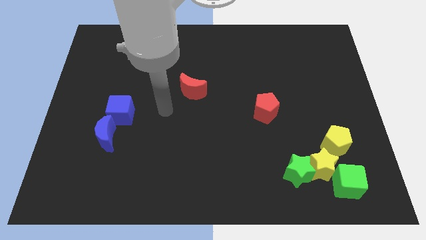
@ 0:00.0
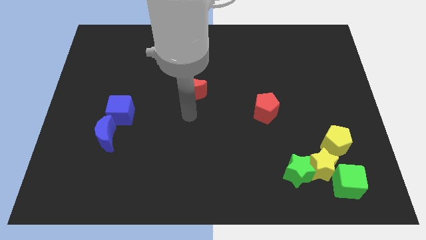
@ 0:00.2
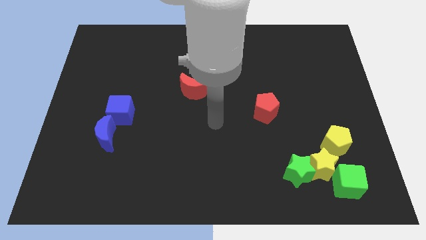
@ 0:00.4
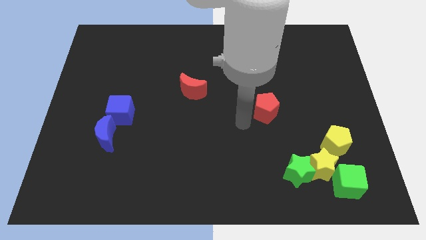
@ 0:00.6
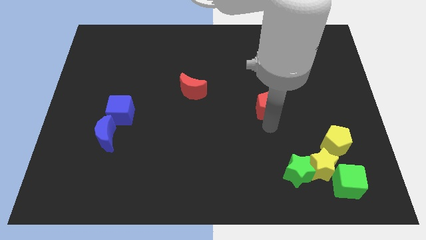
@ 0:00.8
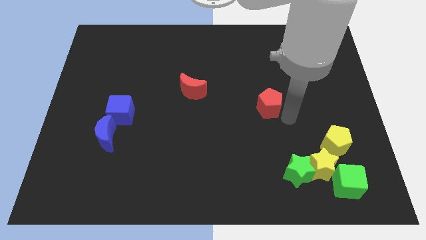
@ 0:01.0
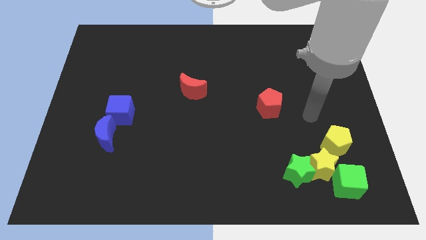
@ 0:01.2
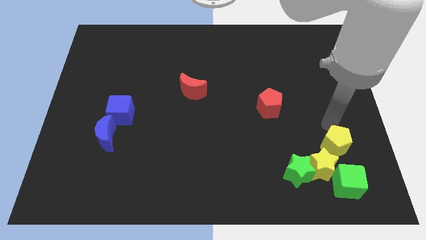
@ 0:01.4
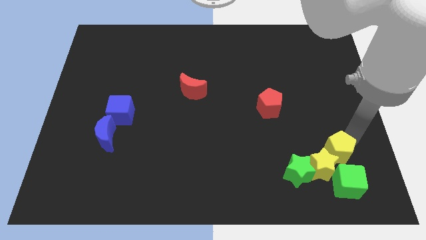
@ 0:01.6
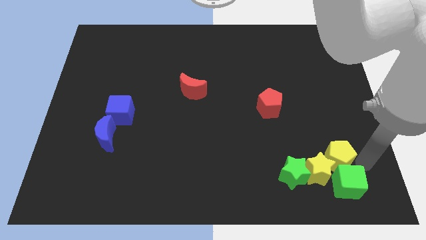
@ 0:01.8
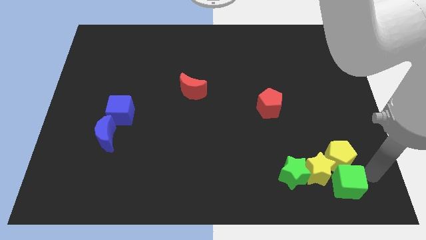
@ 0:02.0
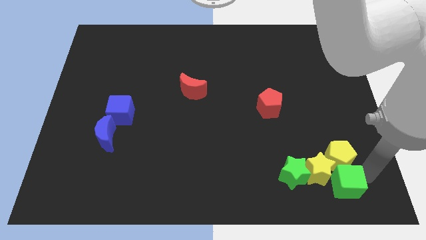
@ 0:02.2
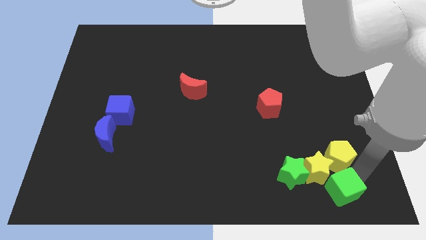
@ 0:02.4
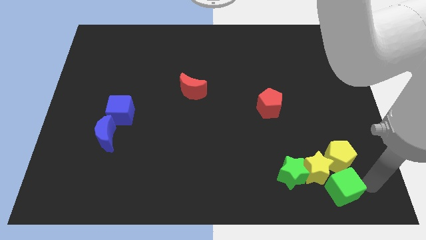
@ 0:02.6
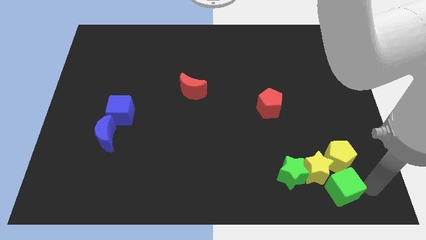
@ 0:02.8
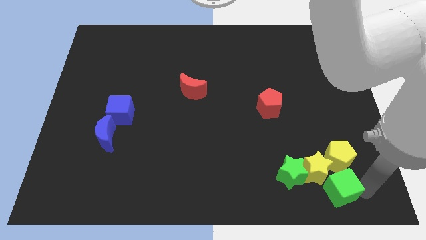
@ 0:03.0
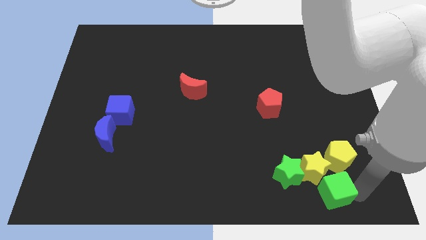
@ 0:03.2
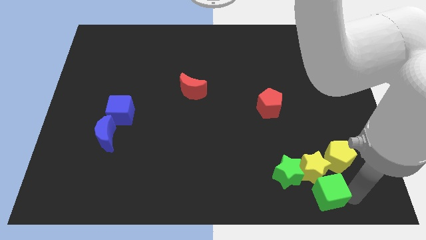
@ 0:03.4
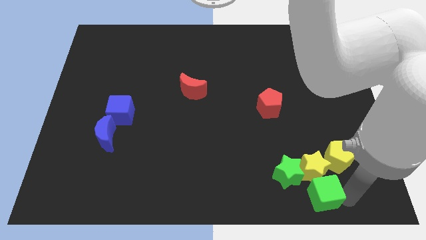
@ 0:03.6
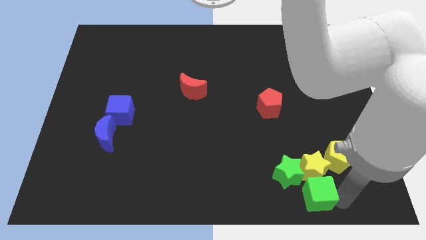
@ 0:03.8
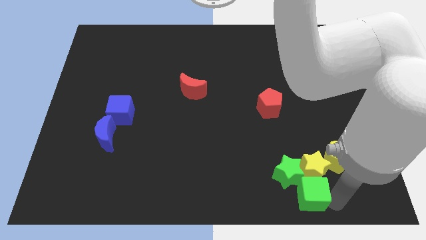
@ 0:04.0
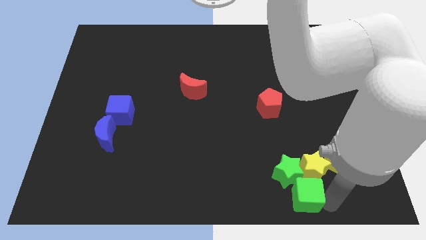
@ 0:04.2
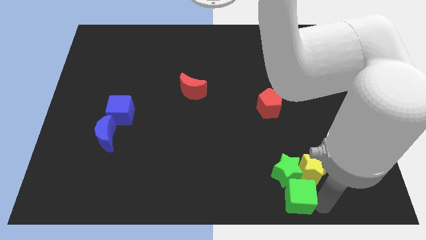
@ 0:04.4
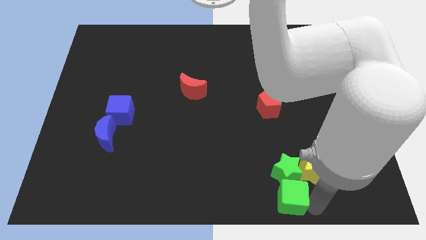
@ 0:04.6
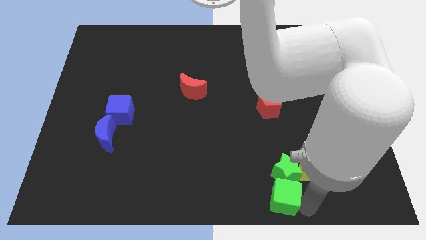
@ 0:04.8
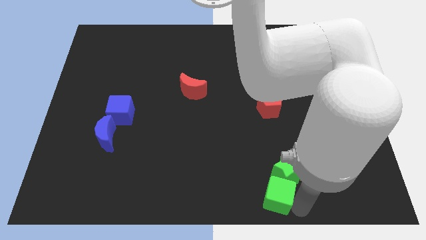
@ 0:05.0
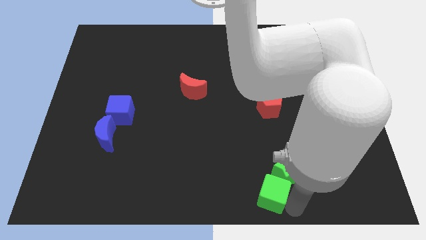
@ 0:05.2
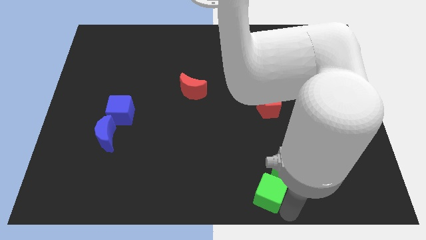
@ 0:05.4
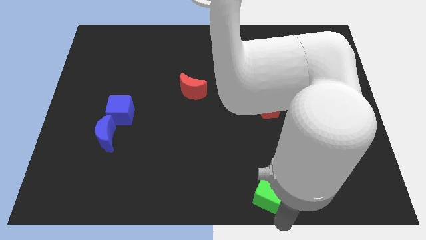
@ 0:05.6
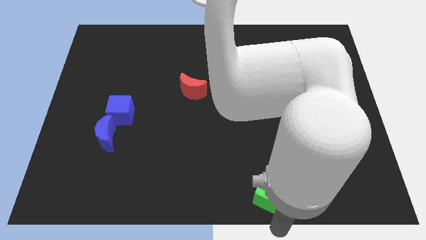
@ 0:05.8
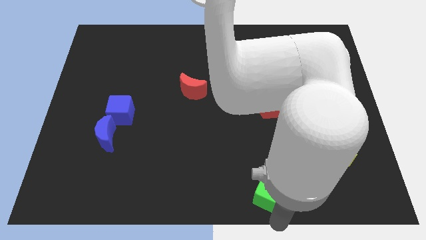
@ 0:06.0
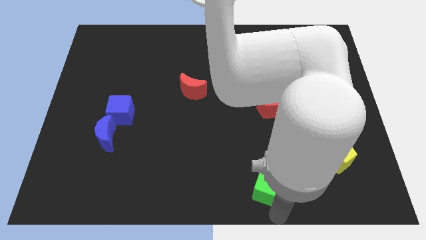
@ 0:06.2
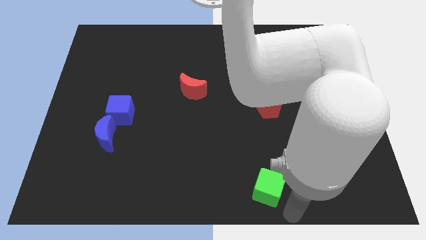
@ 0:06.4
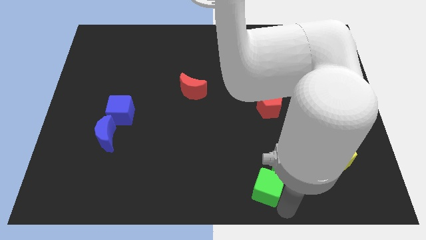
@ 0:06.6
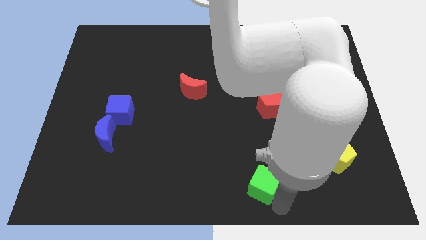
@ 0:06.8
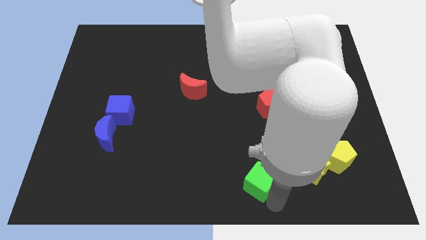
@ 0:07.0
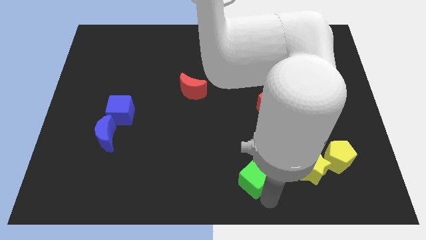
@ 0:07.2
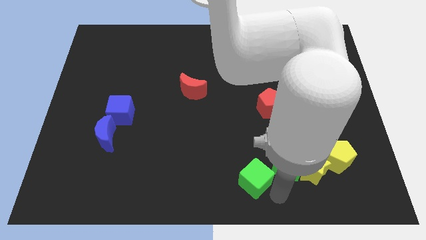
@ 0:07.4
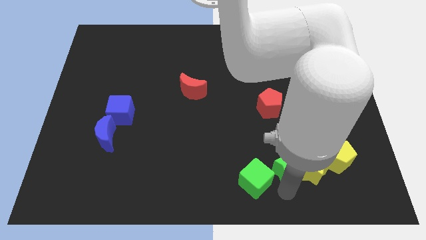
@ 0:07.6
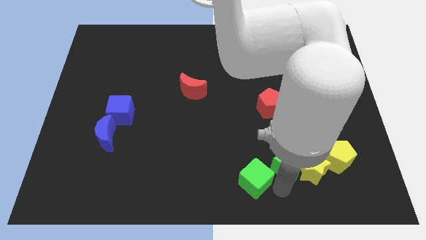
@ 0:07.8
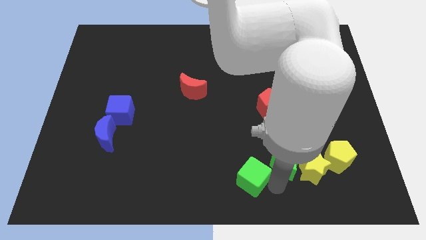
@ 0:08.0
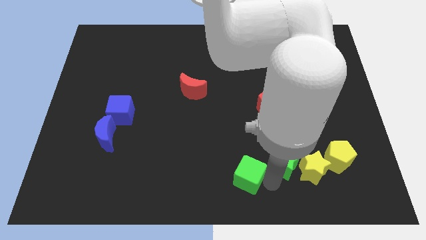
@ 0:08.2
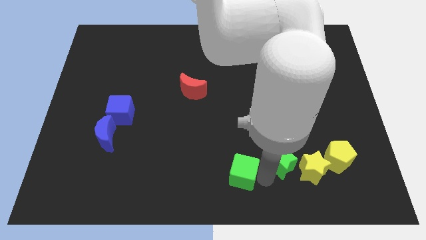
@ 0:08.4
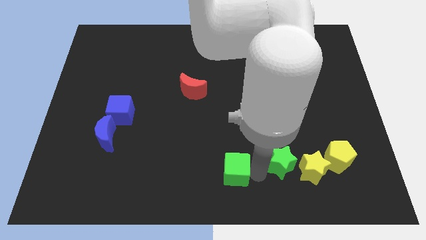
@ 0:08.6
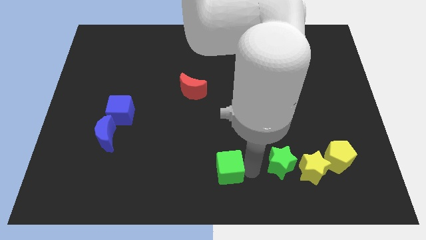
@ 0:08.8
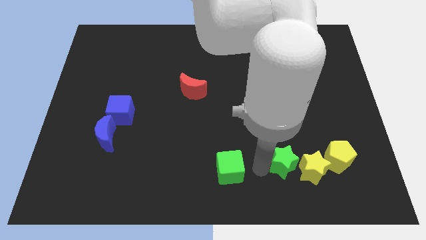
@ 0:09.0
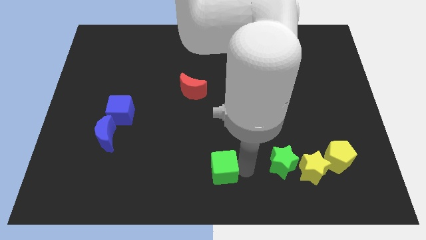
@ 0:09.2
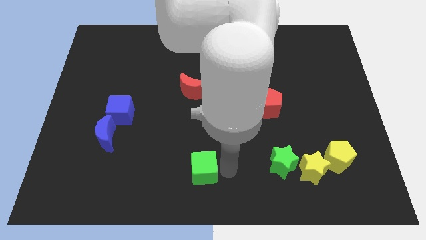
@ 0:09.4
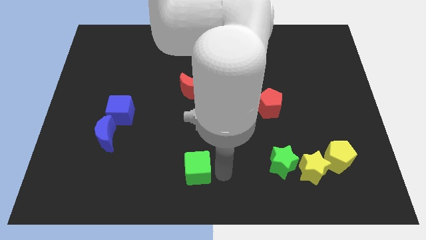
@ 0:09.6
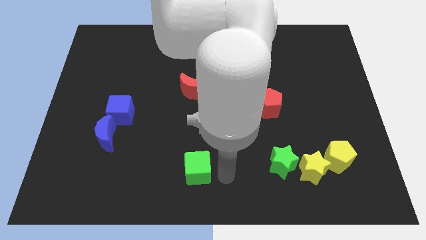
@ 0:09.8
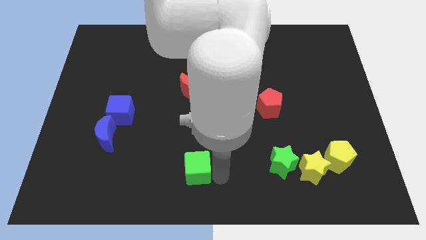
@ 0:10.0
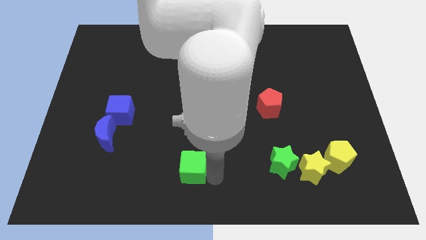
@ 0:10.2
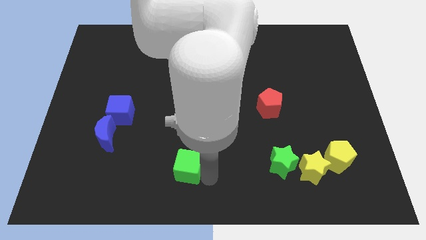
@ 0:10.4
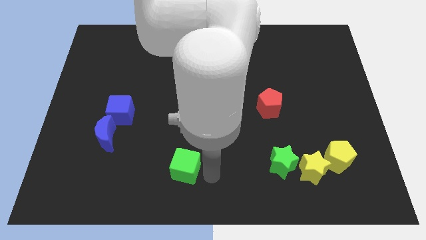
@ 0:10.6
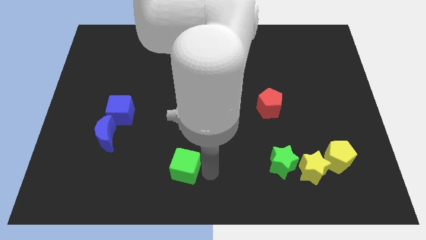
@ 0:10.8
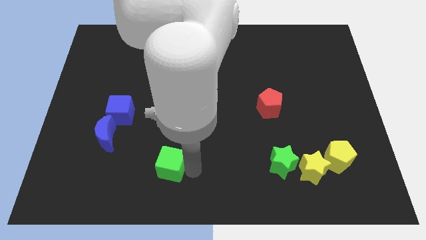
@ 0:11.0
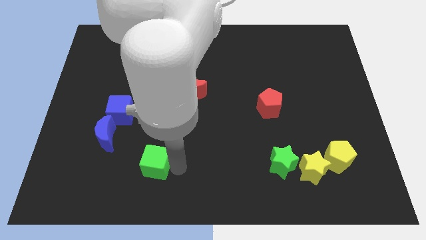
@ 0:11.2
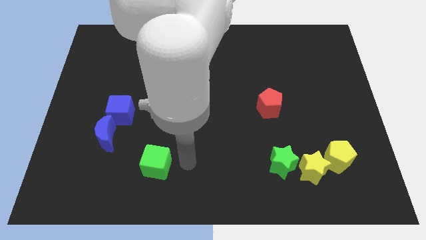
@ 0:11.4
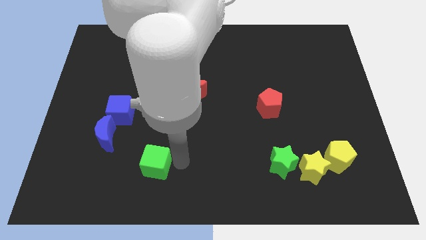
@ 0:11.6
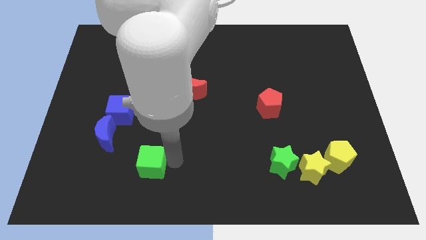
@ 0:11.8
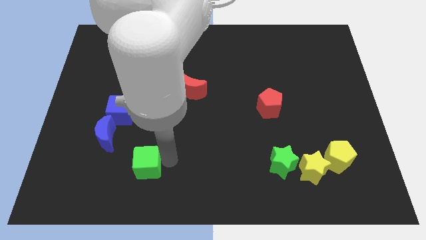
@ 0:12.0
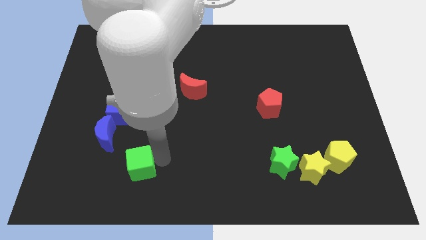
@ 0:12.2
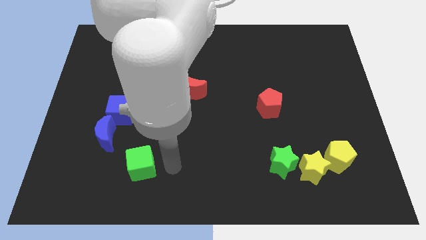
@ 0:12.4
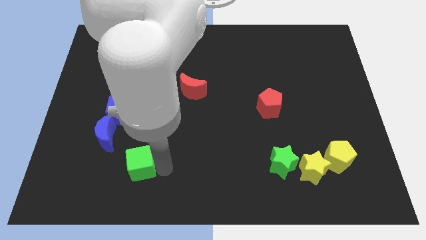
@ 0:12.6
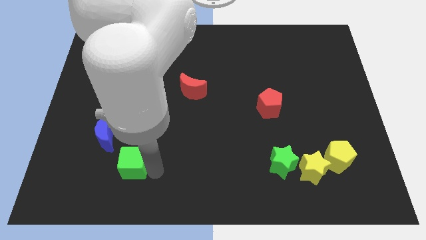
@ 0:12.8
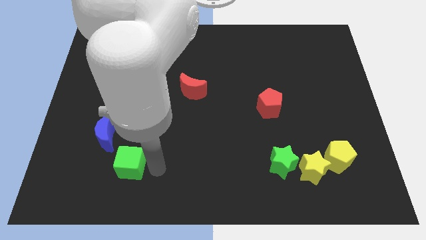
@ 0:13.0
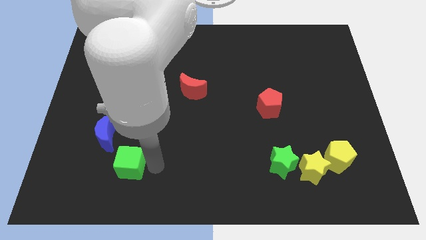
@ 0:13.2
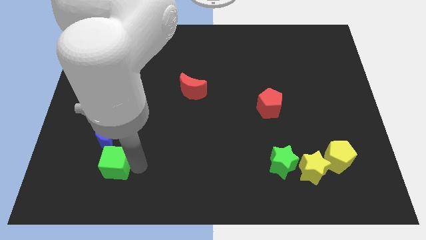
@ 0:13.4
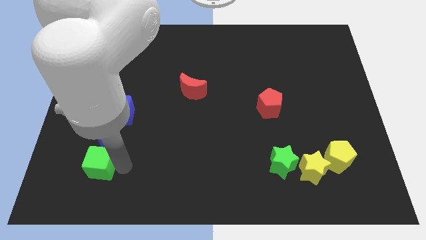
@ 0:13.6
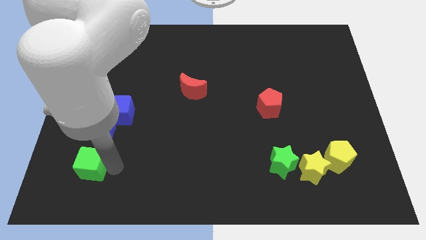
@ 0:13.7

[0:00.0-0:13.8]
slide the green cube diagonally down and to the left of the blue moon

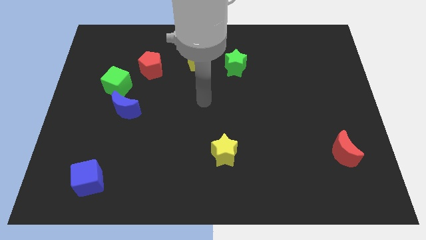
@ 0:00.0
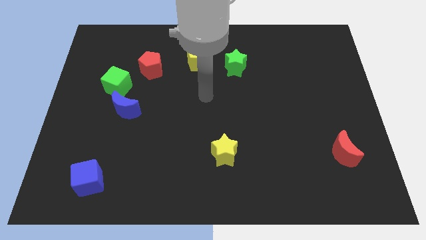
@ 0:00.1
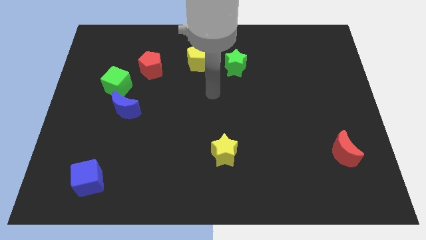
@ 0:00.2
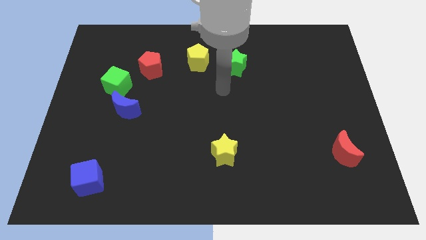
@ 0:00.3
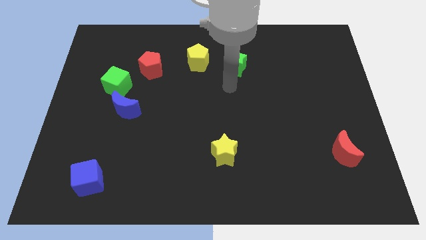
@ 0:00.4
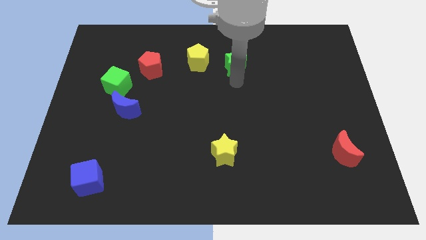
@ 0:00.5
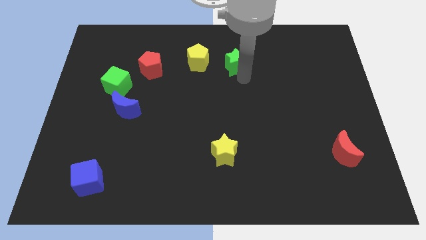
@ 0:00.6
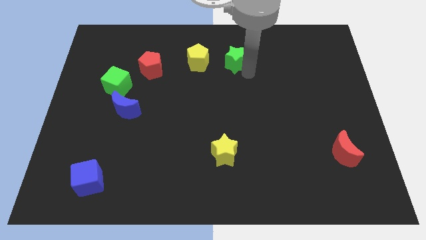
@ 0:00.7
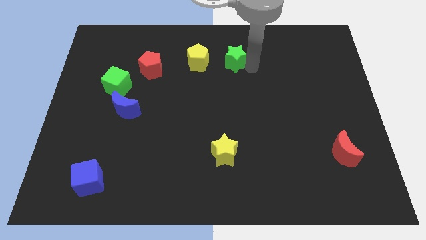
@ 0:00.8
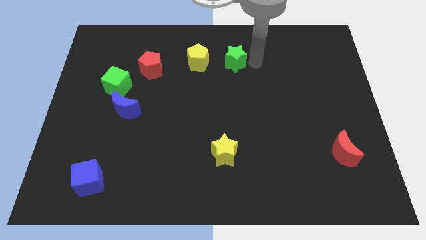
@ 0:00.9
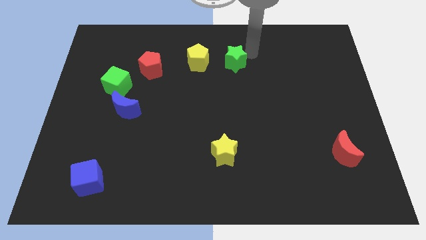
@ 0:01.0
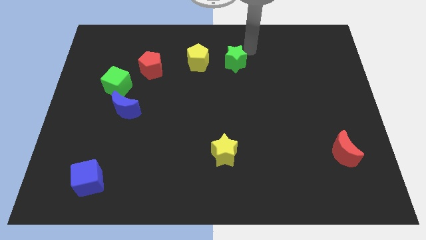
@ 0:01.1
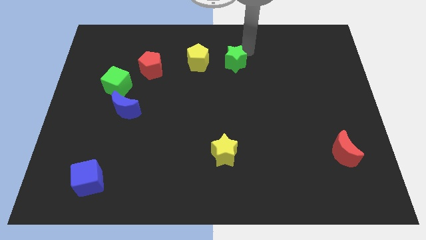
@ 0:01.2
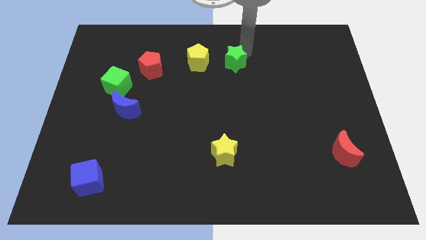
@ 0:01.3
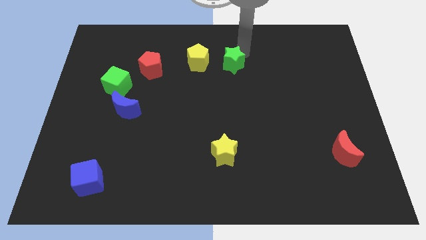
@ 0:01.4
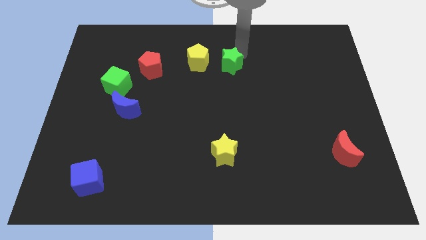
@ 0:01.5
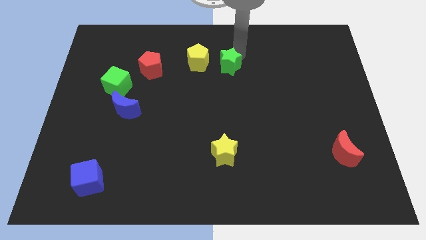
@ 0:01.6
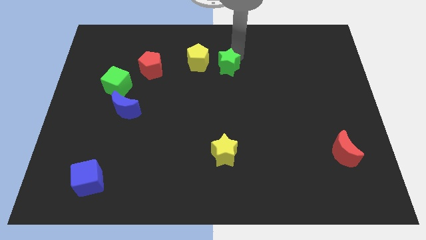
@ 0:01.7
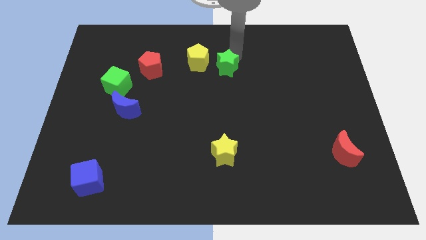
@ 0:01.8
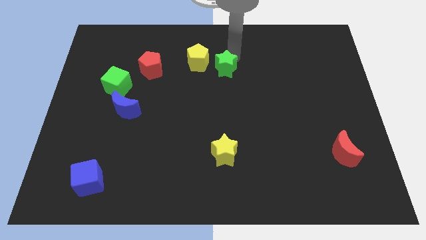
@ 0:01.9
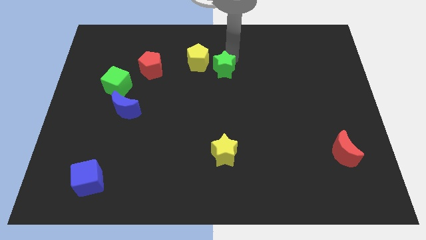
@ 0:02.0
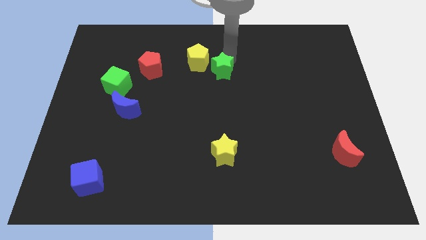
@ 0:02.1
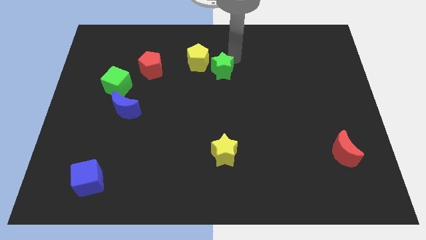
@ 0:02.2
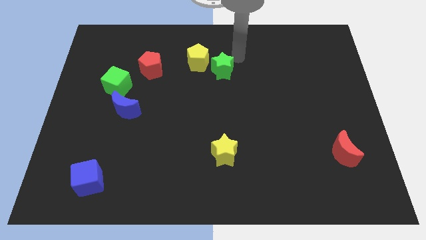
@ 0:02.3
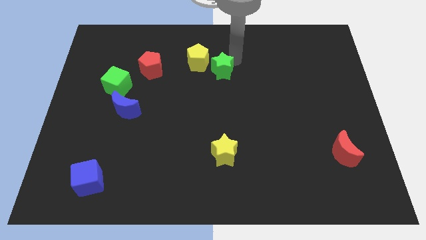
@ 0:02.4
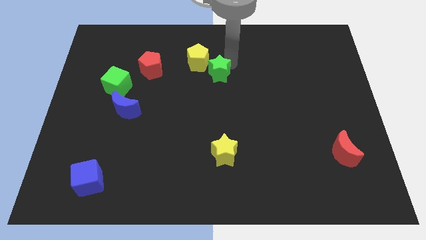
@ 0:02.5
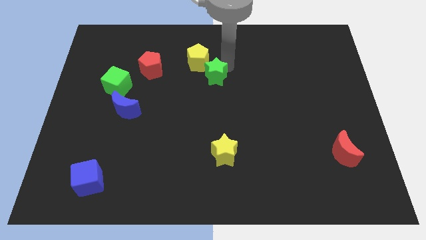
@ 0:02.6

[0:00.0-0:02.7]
push the green star below the yellow pentagon
